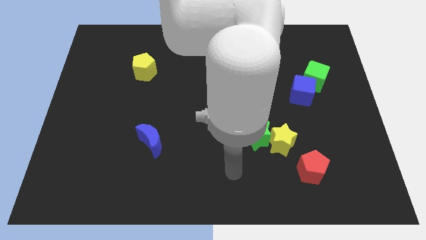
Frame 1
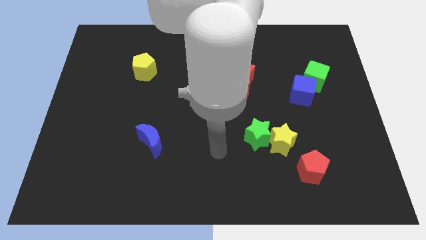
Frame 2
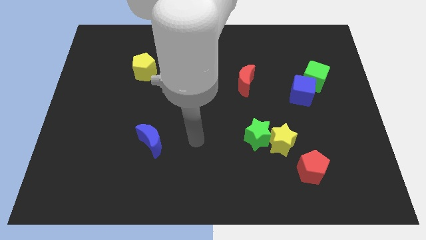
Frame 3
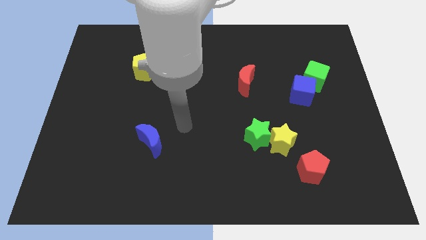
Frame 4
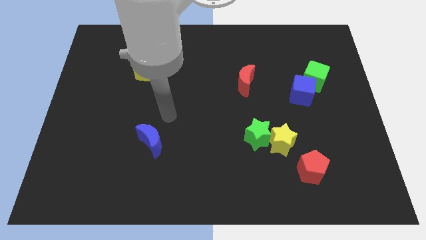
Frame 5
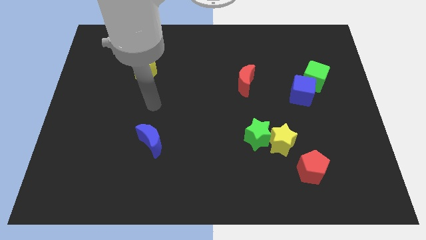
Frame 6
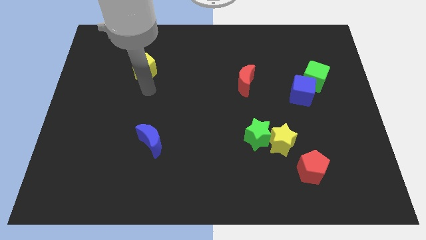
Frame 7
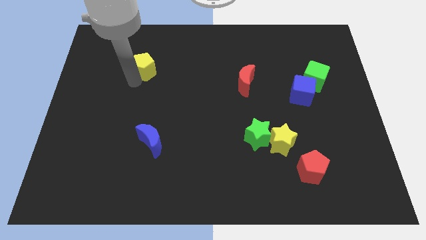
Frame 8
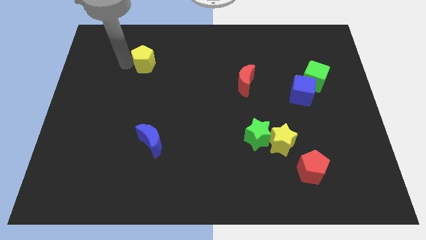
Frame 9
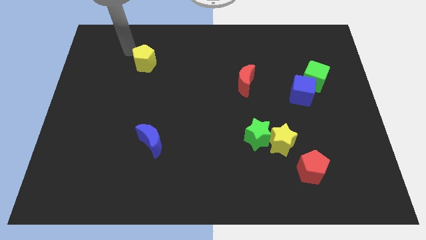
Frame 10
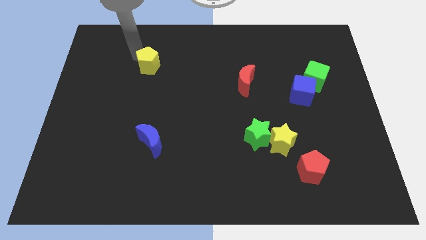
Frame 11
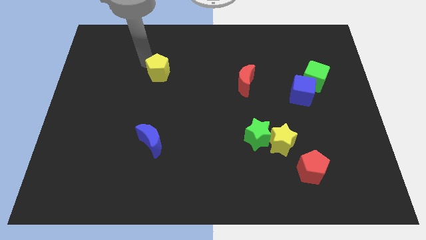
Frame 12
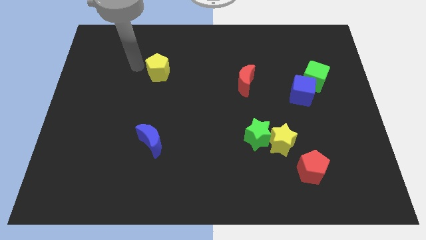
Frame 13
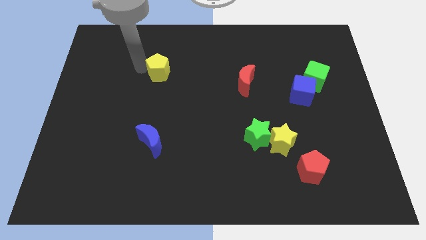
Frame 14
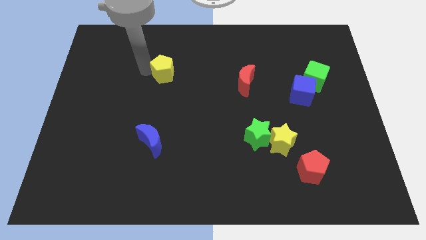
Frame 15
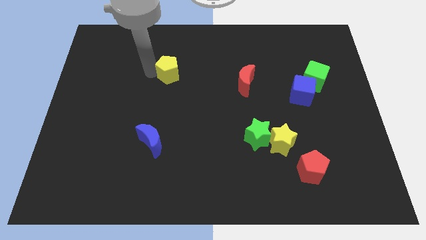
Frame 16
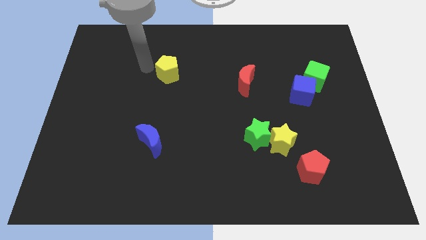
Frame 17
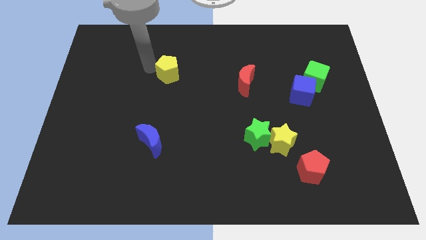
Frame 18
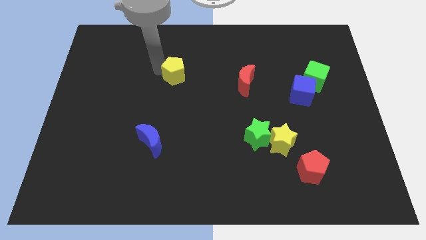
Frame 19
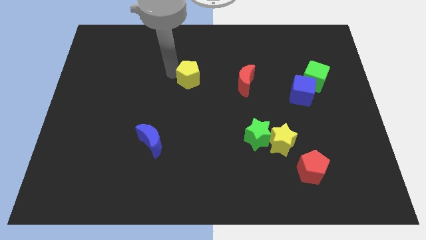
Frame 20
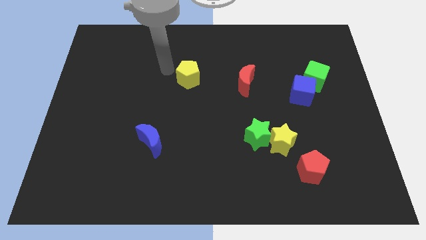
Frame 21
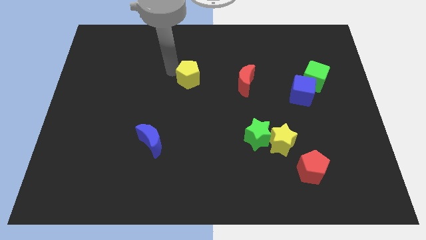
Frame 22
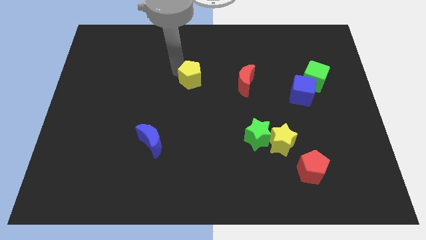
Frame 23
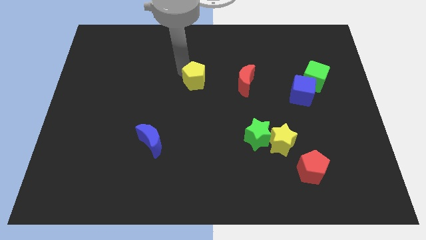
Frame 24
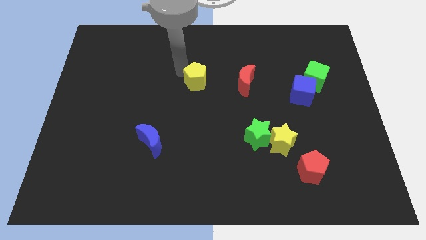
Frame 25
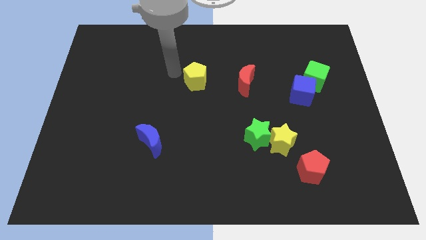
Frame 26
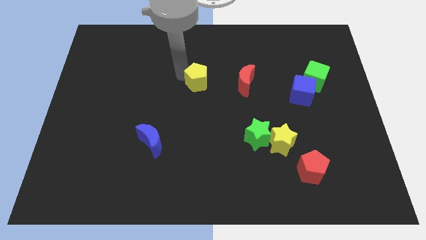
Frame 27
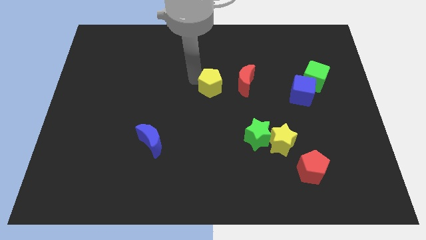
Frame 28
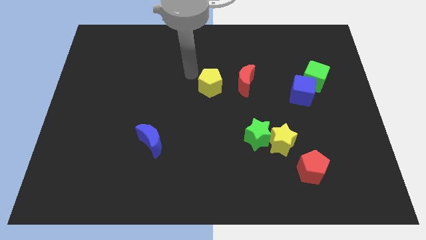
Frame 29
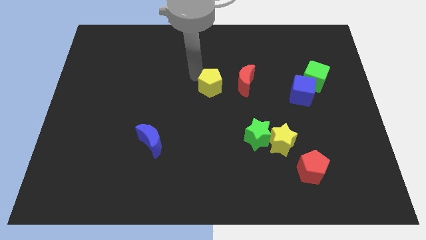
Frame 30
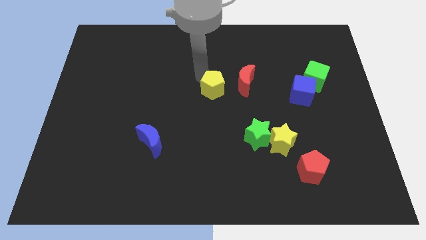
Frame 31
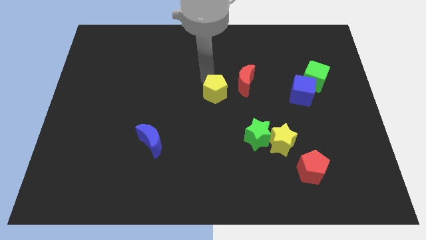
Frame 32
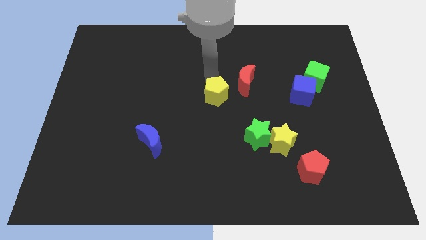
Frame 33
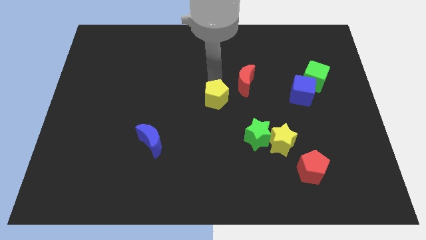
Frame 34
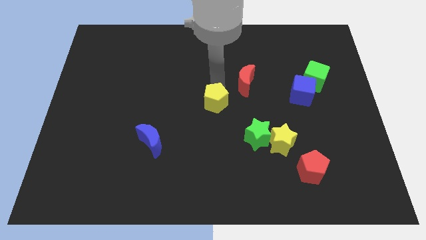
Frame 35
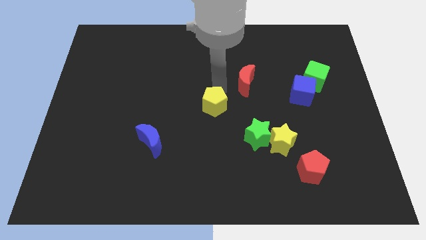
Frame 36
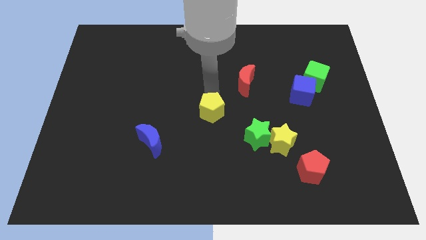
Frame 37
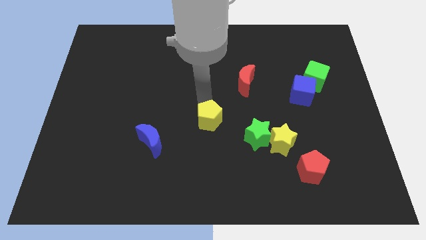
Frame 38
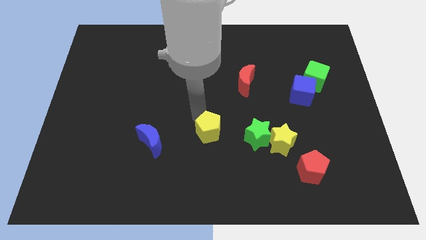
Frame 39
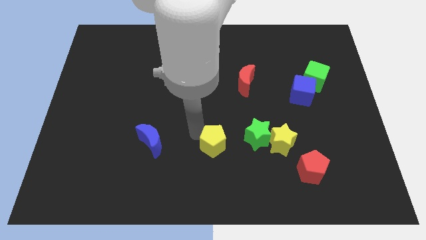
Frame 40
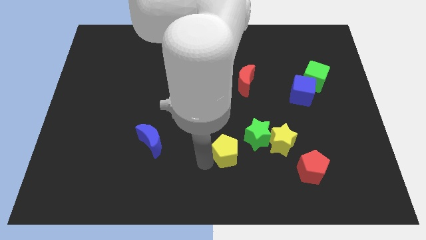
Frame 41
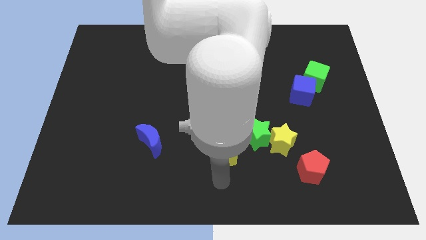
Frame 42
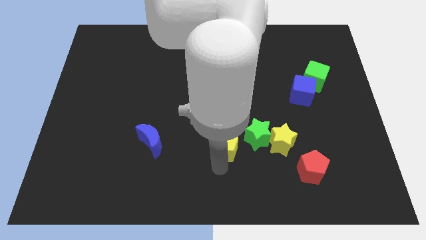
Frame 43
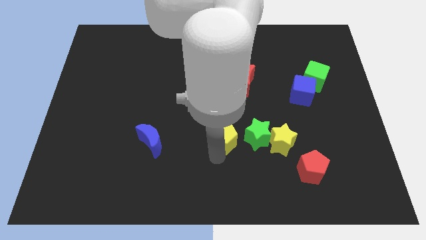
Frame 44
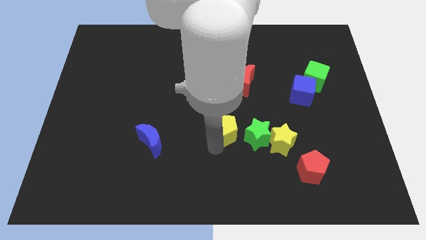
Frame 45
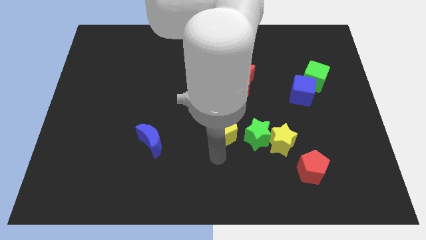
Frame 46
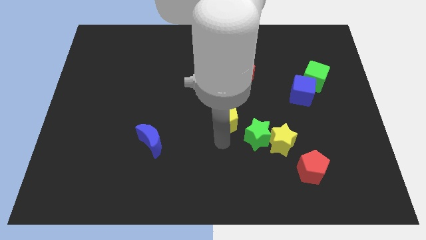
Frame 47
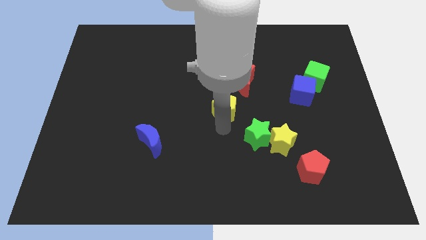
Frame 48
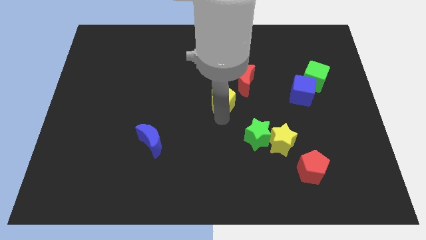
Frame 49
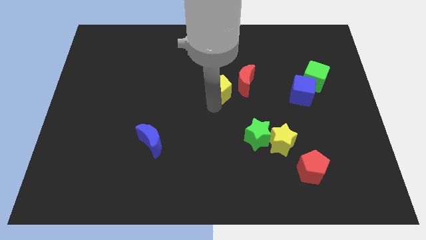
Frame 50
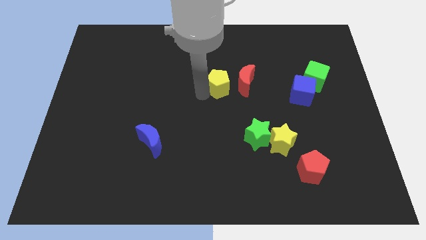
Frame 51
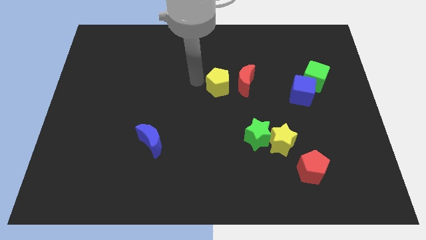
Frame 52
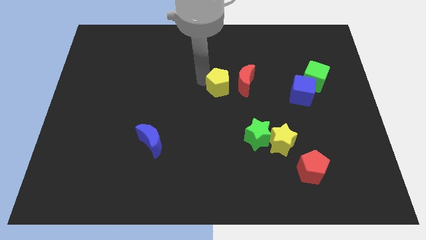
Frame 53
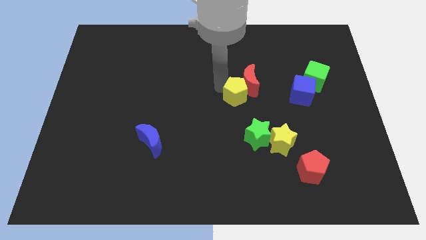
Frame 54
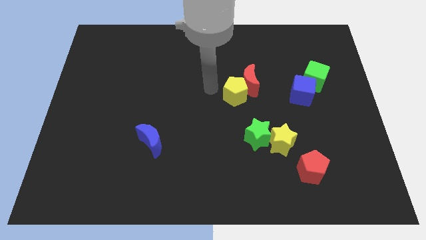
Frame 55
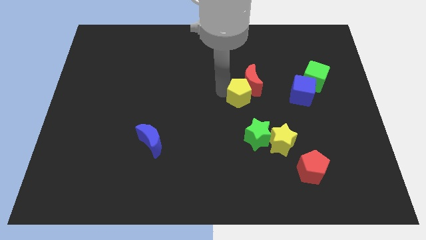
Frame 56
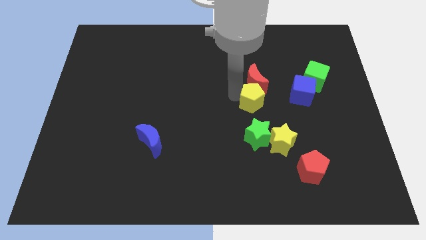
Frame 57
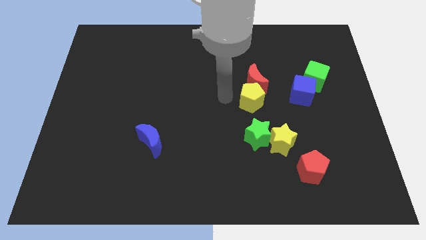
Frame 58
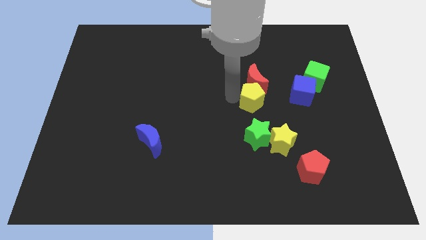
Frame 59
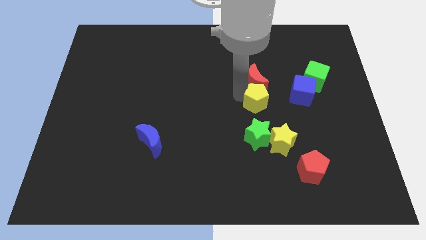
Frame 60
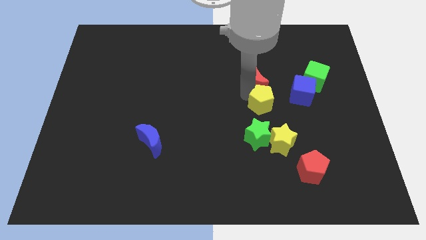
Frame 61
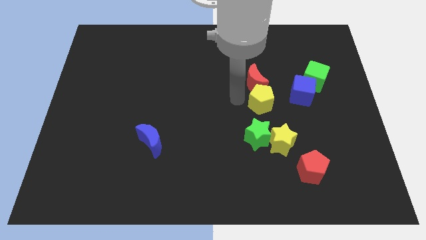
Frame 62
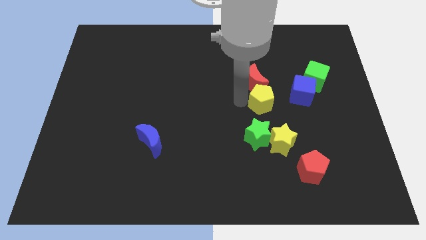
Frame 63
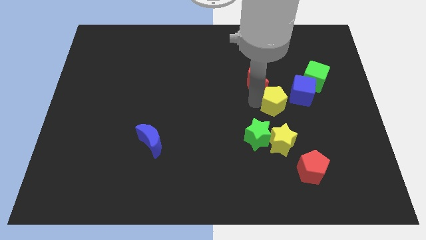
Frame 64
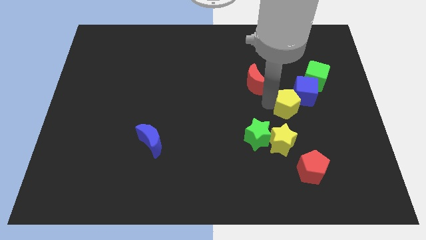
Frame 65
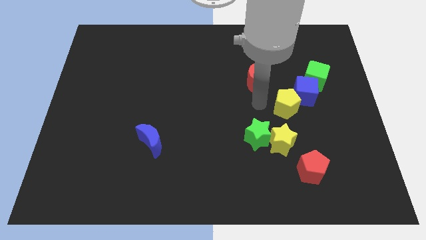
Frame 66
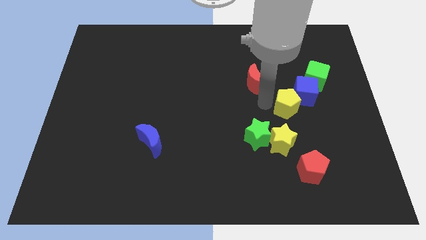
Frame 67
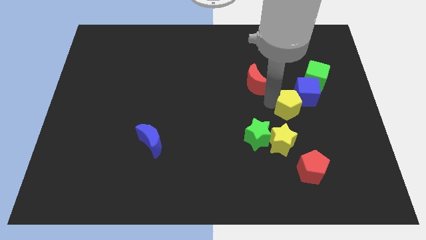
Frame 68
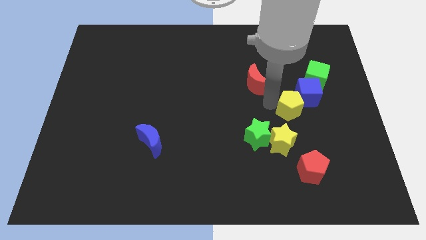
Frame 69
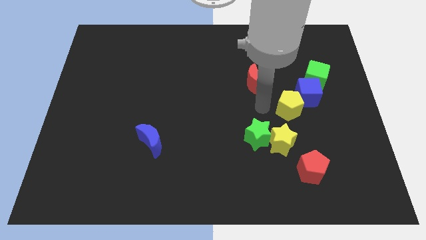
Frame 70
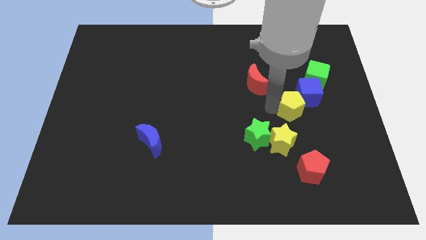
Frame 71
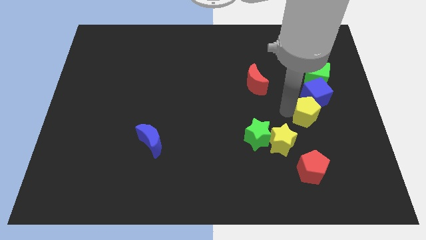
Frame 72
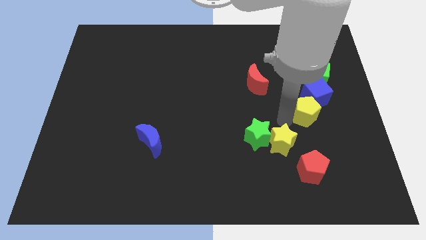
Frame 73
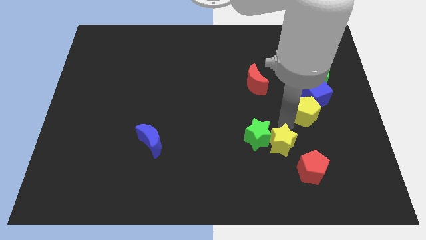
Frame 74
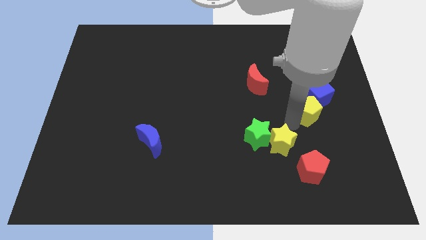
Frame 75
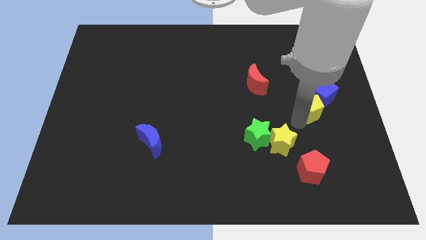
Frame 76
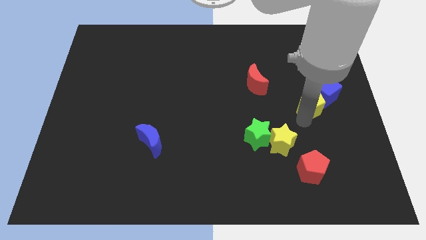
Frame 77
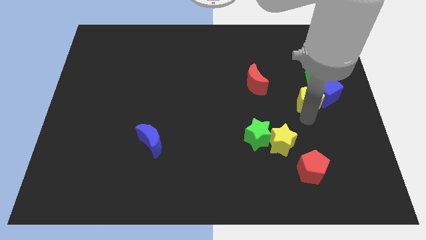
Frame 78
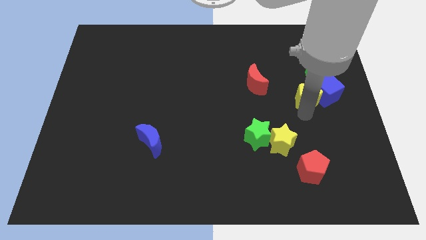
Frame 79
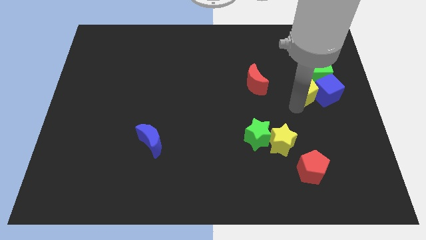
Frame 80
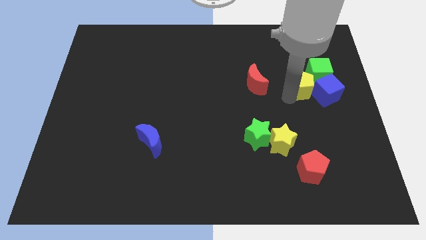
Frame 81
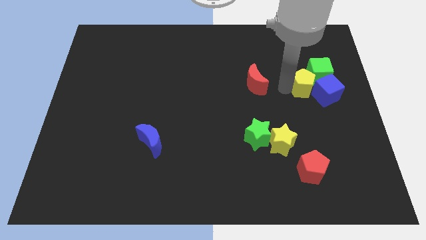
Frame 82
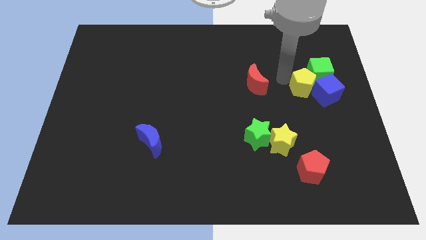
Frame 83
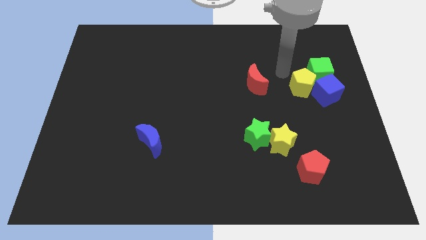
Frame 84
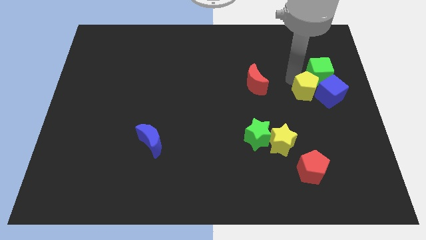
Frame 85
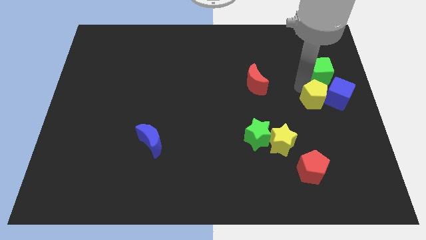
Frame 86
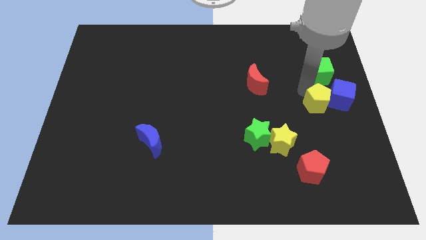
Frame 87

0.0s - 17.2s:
slide the yellow pentagon to the center right
